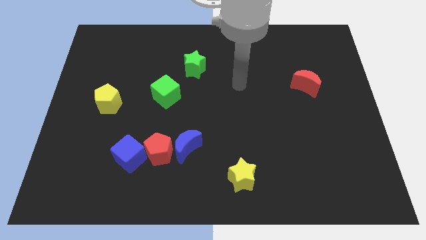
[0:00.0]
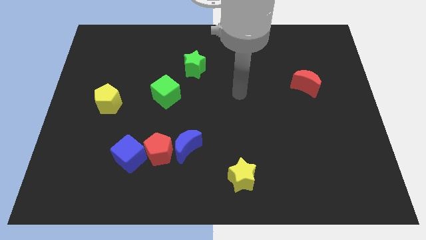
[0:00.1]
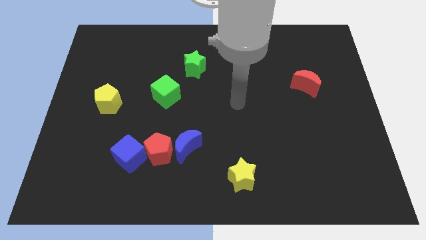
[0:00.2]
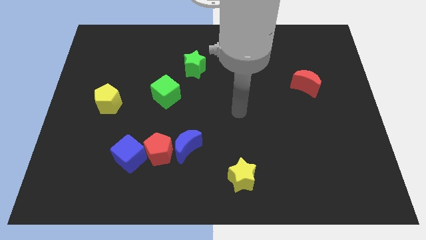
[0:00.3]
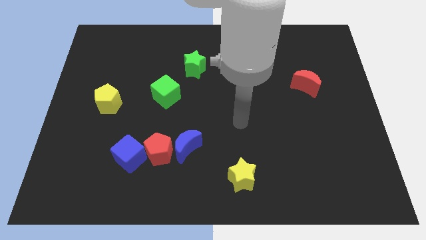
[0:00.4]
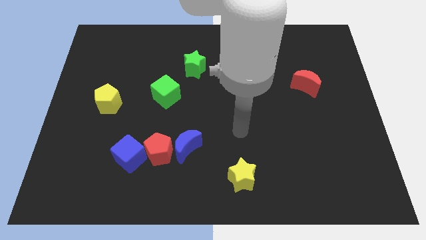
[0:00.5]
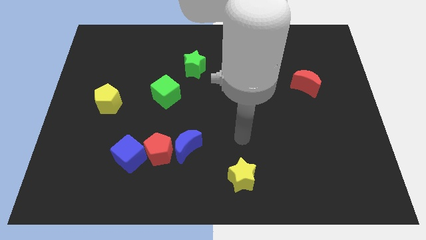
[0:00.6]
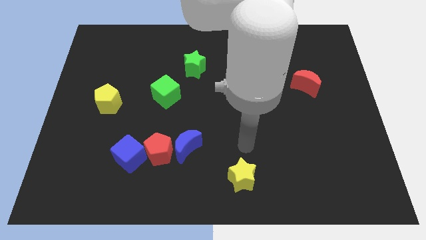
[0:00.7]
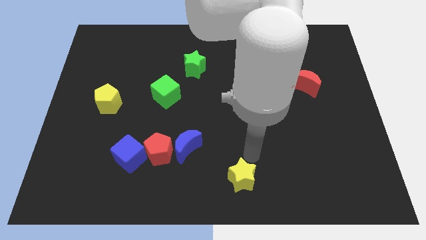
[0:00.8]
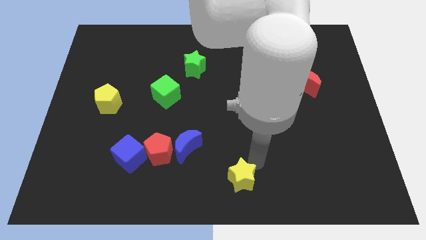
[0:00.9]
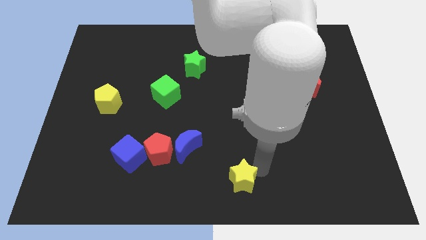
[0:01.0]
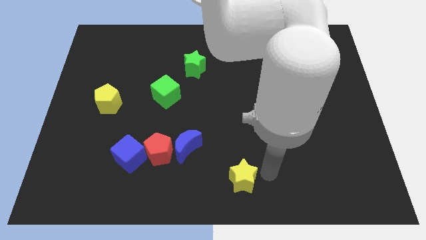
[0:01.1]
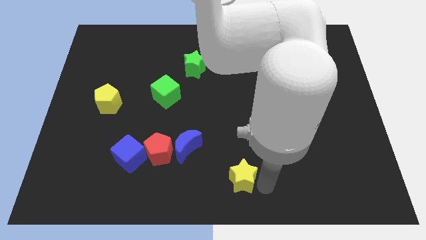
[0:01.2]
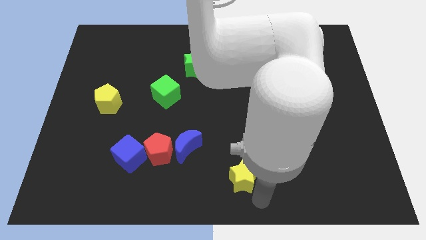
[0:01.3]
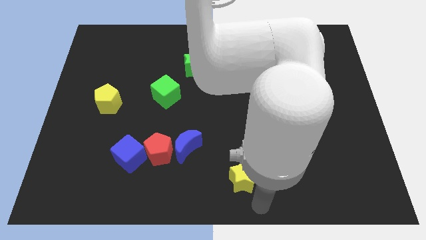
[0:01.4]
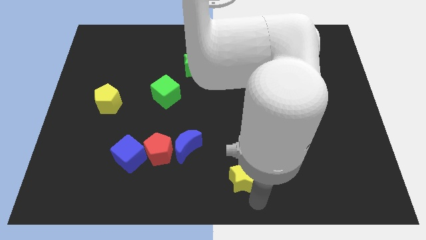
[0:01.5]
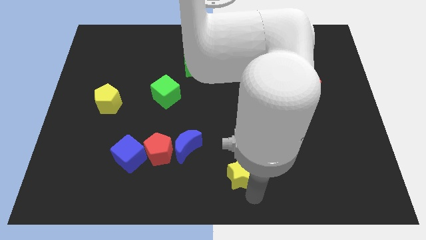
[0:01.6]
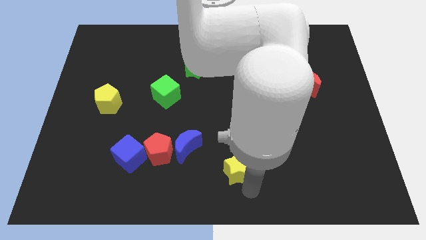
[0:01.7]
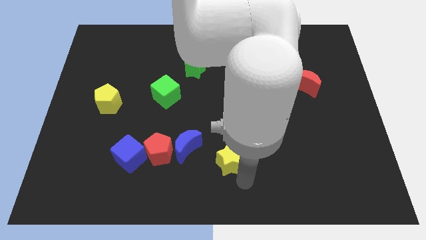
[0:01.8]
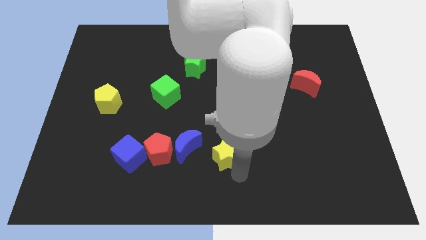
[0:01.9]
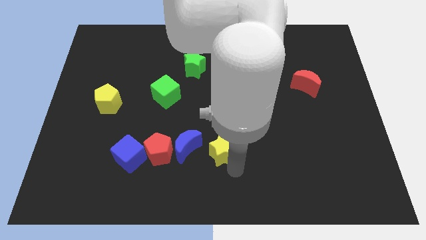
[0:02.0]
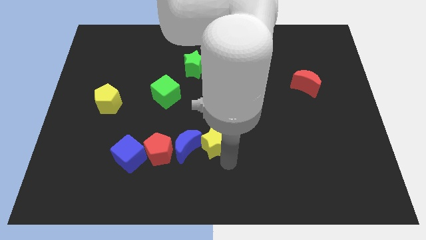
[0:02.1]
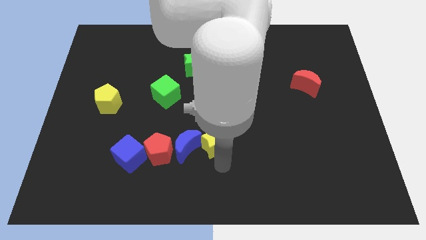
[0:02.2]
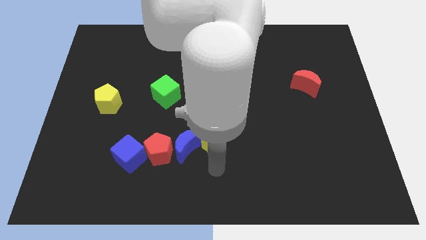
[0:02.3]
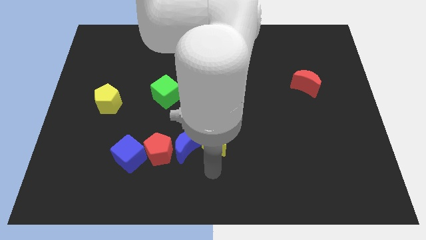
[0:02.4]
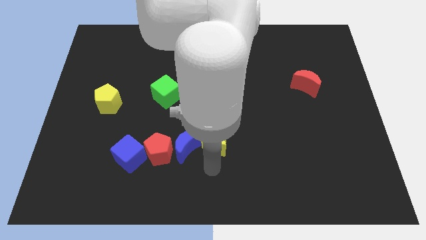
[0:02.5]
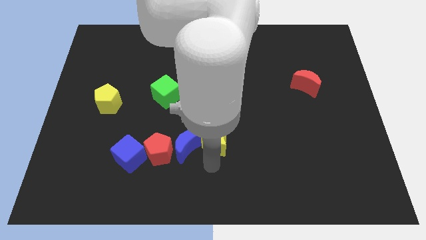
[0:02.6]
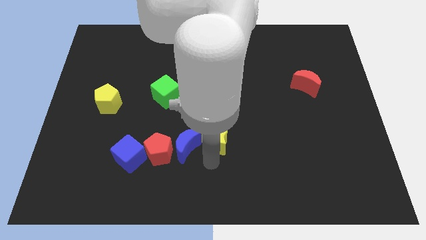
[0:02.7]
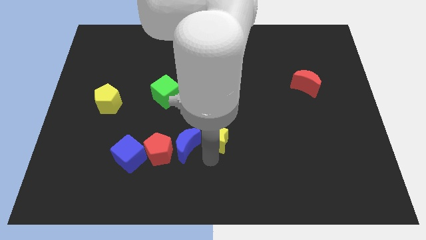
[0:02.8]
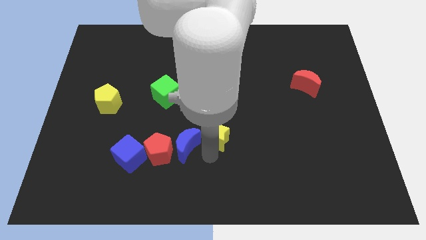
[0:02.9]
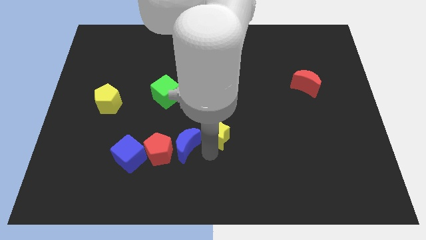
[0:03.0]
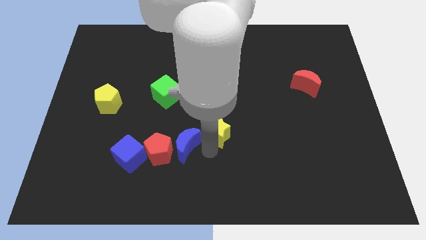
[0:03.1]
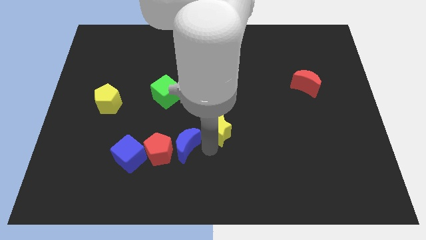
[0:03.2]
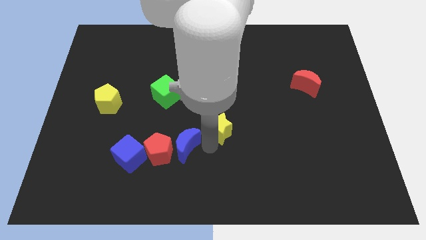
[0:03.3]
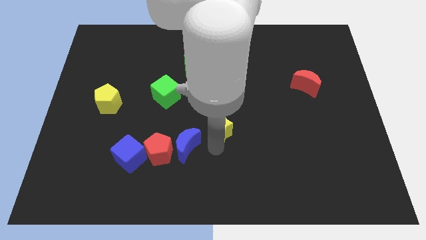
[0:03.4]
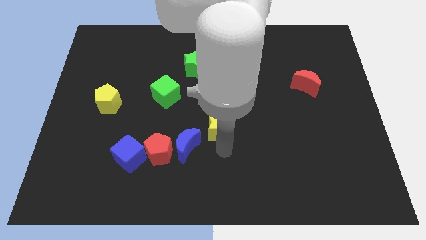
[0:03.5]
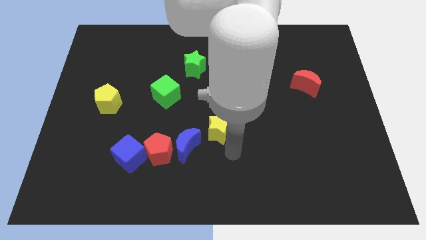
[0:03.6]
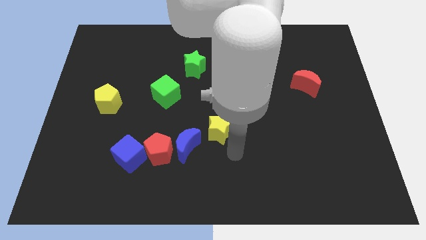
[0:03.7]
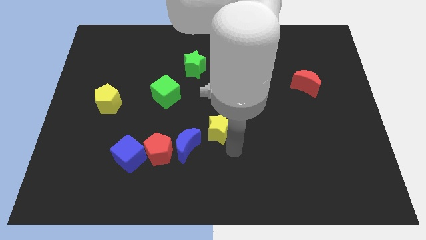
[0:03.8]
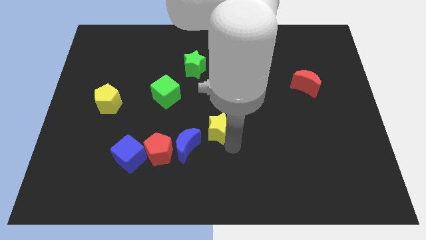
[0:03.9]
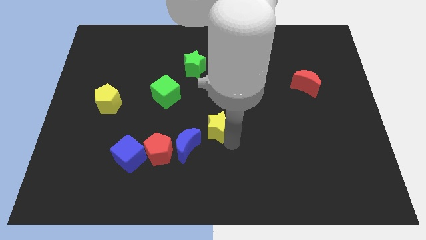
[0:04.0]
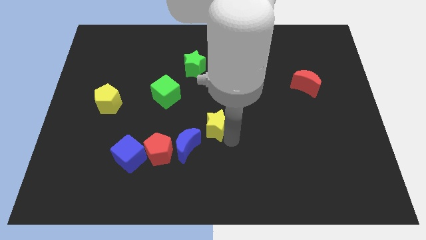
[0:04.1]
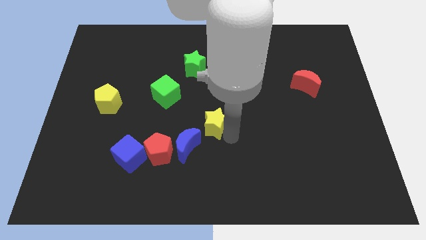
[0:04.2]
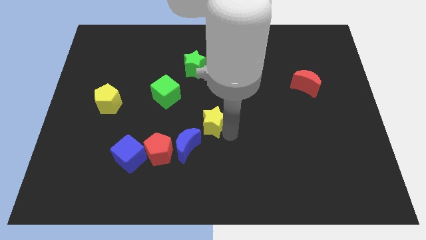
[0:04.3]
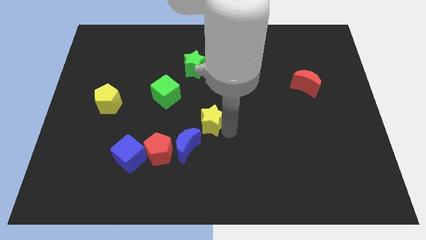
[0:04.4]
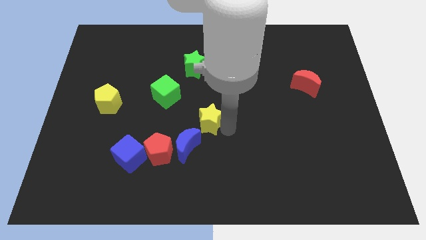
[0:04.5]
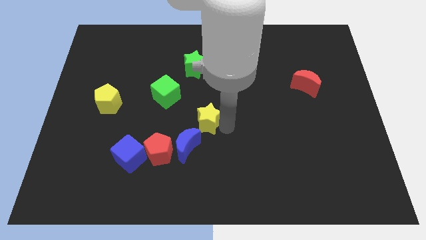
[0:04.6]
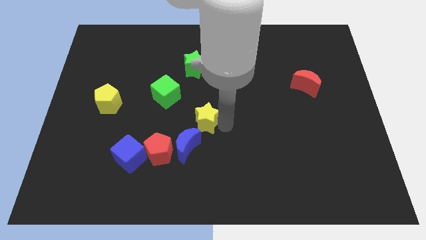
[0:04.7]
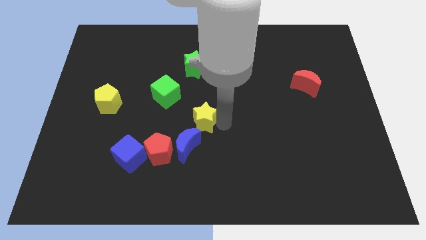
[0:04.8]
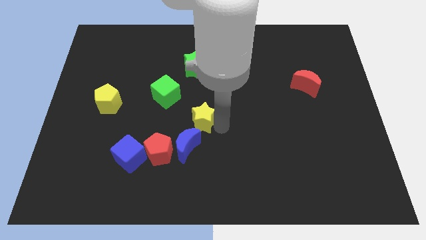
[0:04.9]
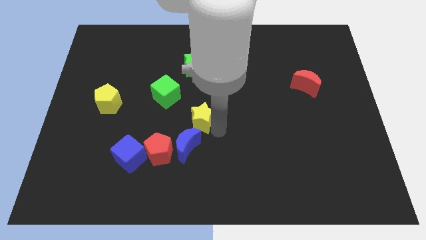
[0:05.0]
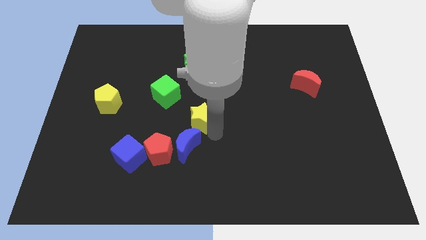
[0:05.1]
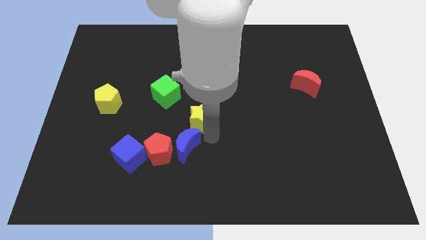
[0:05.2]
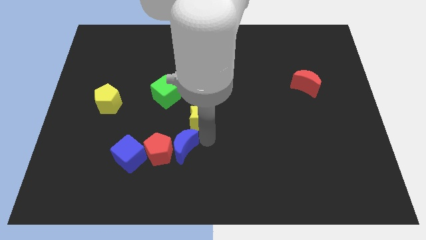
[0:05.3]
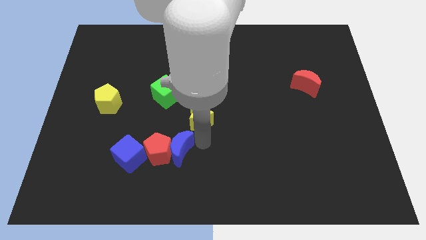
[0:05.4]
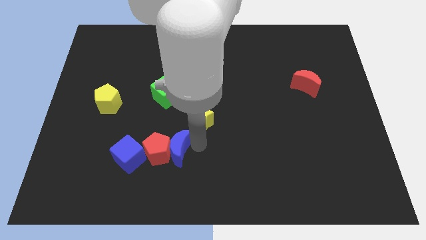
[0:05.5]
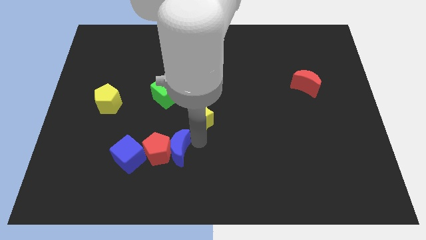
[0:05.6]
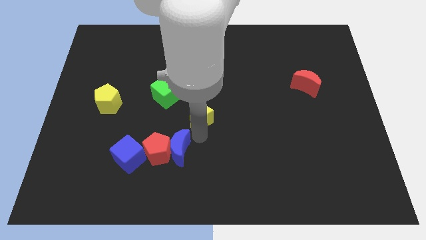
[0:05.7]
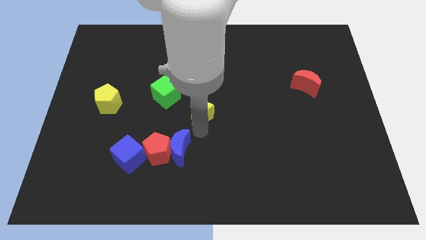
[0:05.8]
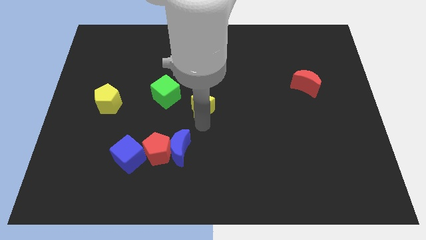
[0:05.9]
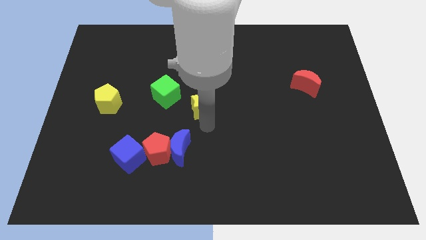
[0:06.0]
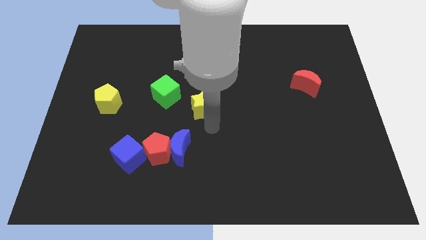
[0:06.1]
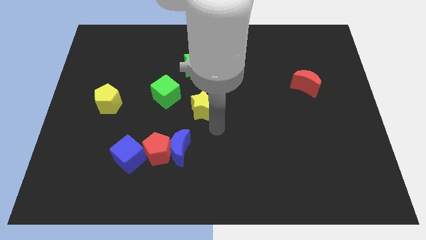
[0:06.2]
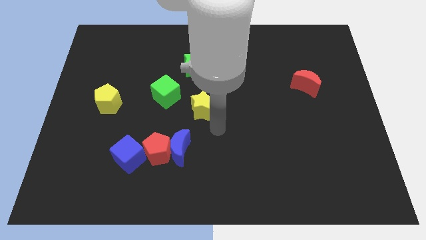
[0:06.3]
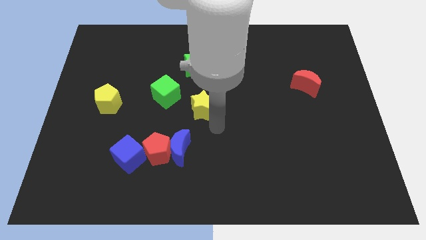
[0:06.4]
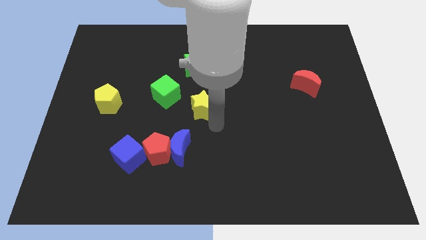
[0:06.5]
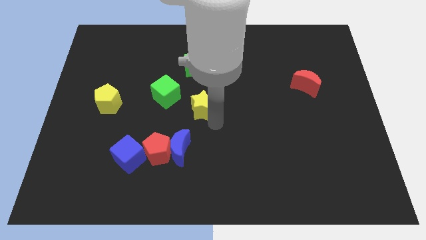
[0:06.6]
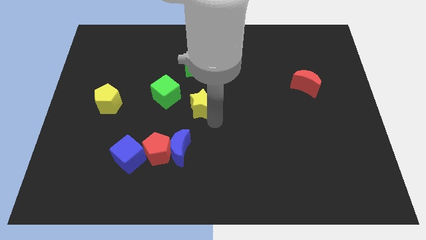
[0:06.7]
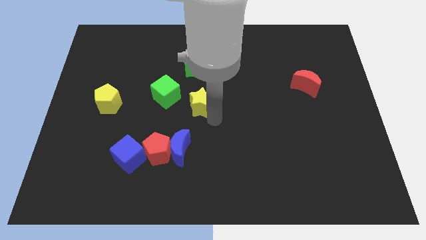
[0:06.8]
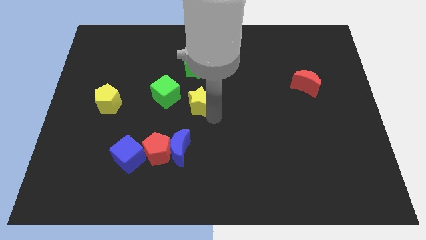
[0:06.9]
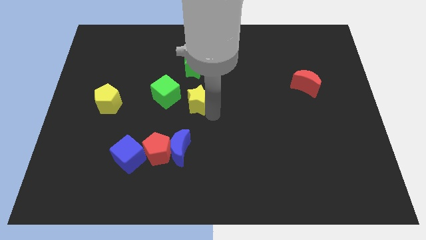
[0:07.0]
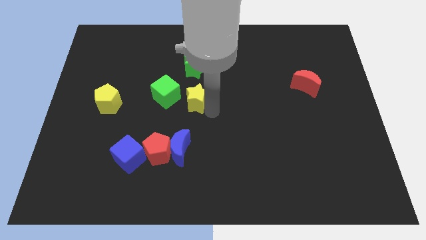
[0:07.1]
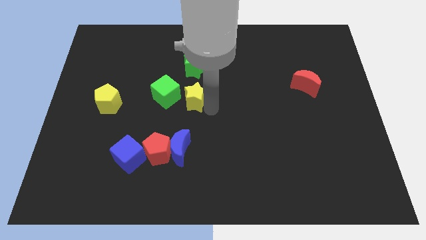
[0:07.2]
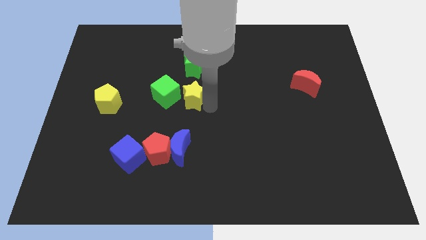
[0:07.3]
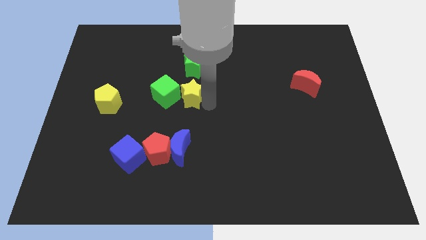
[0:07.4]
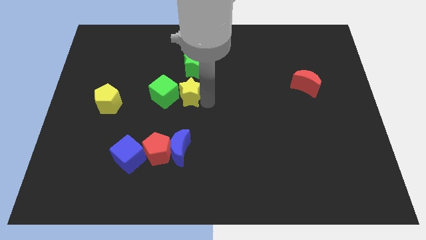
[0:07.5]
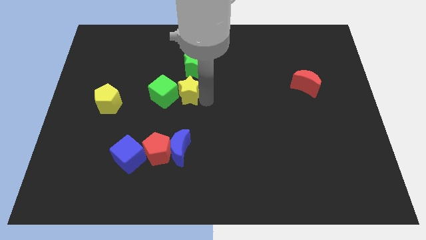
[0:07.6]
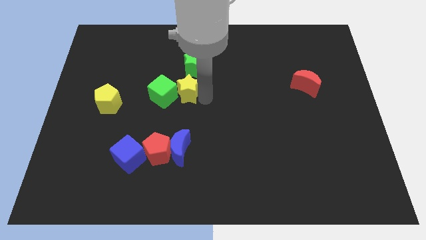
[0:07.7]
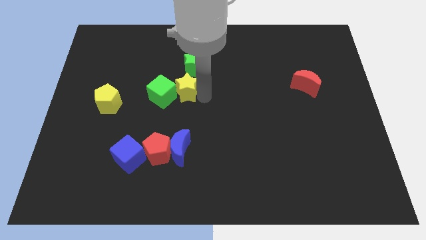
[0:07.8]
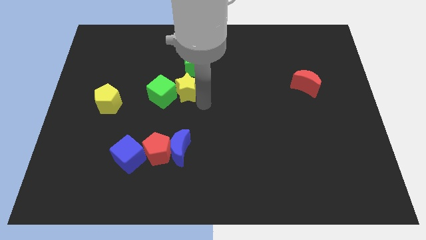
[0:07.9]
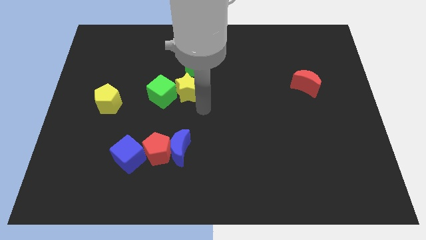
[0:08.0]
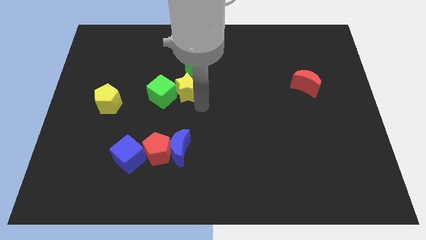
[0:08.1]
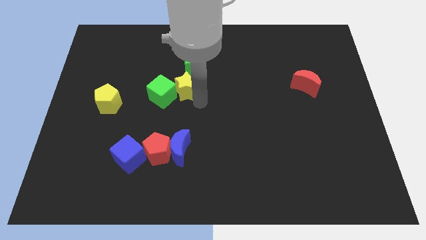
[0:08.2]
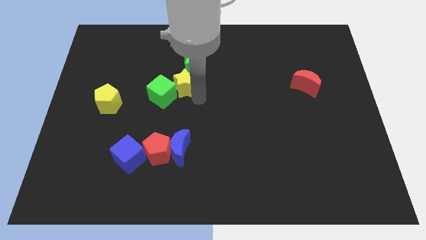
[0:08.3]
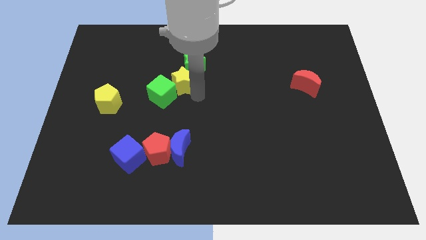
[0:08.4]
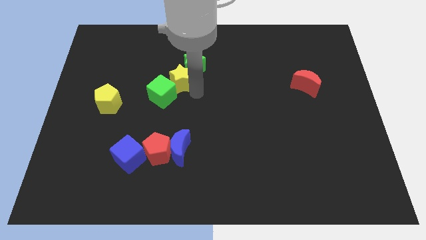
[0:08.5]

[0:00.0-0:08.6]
put the yellow star to the top of the green cube
